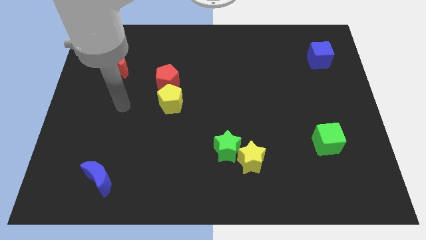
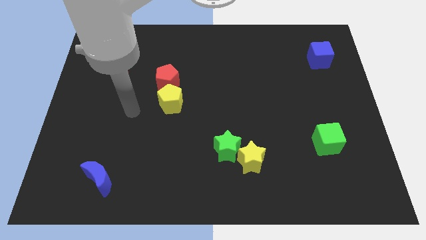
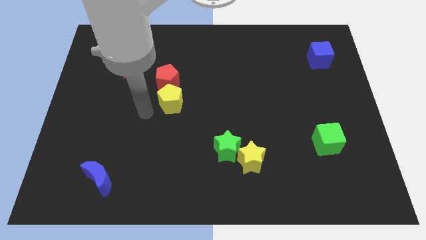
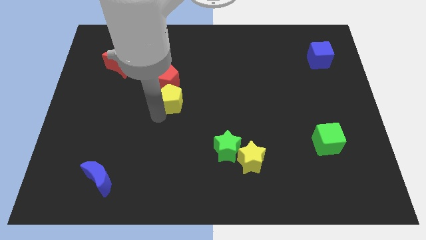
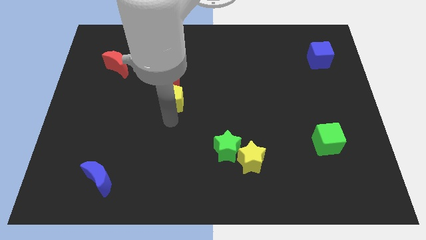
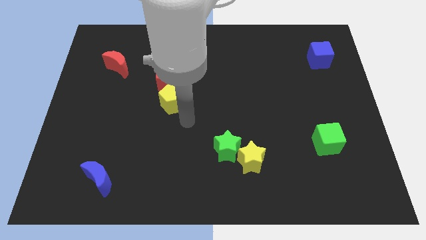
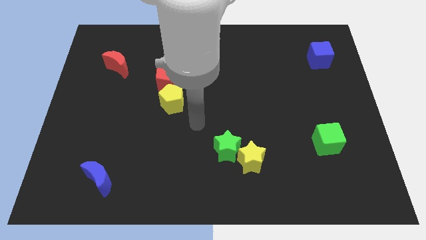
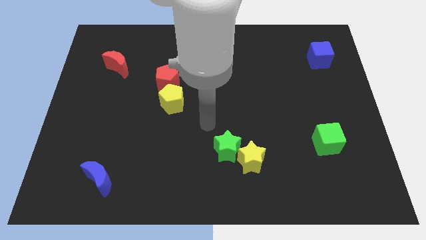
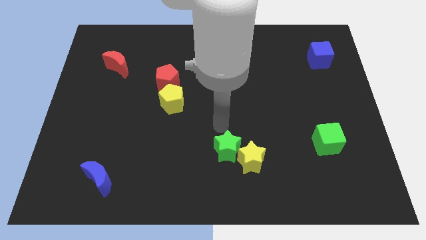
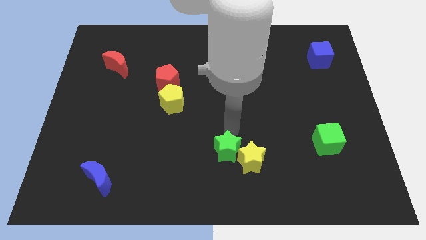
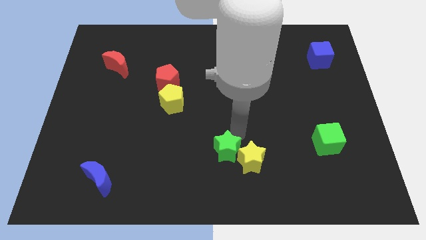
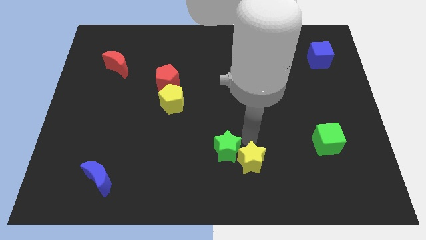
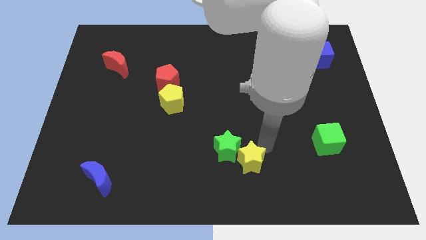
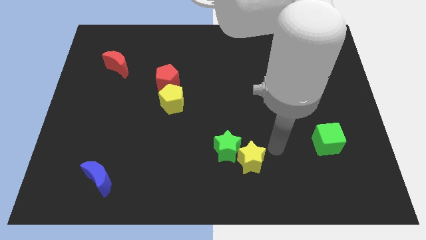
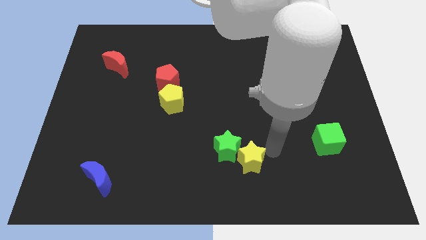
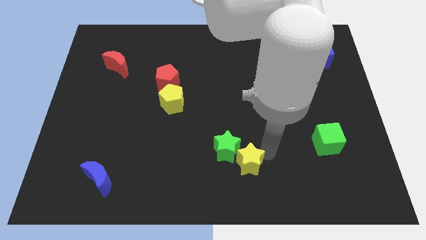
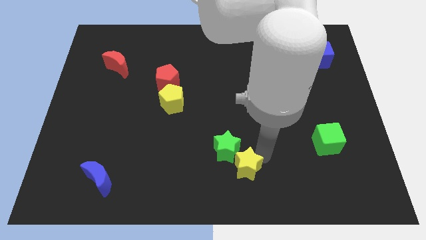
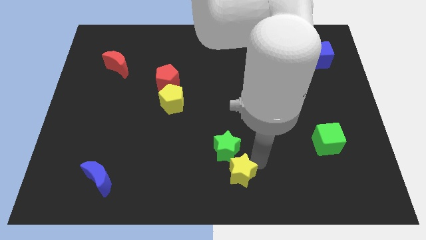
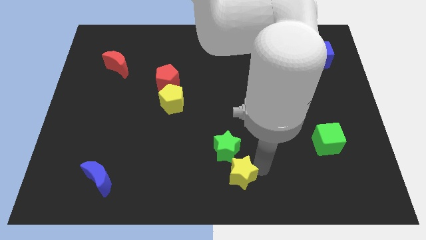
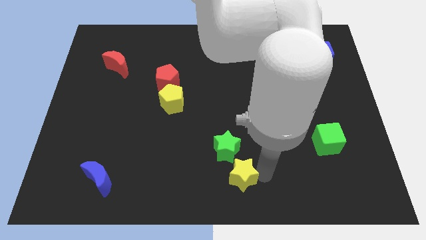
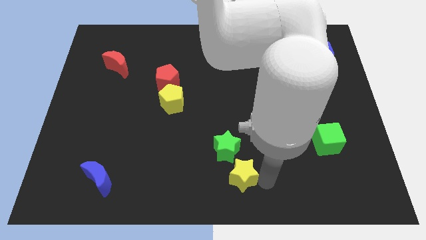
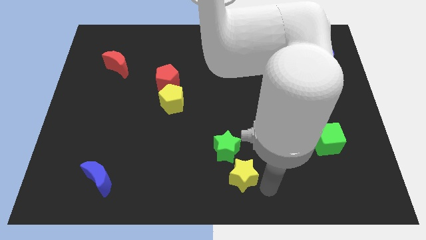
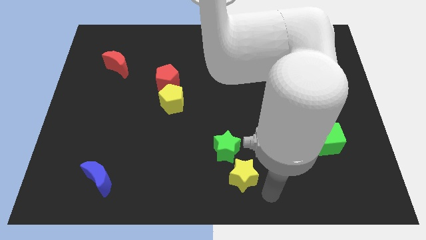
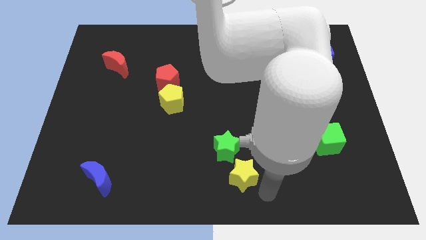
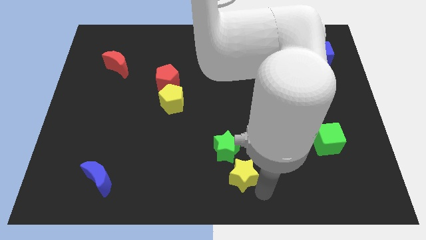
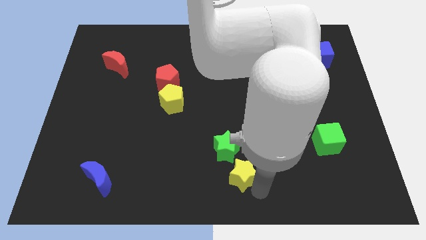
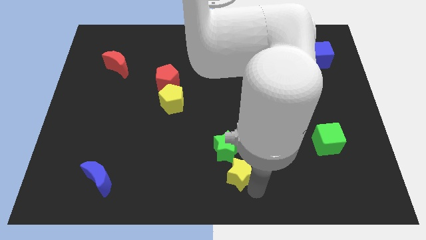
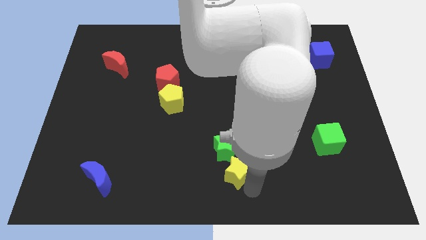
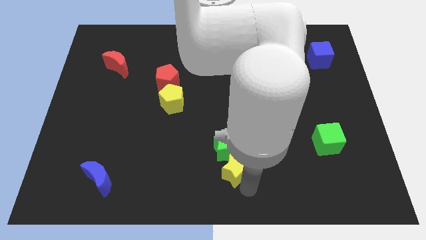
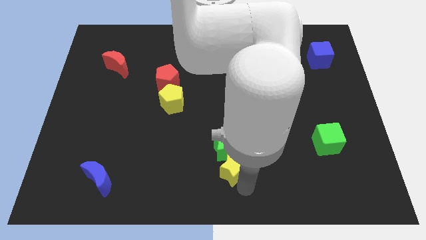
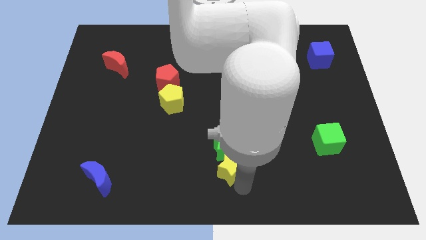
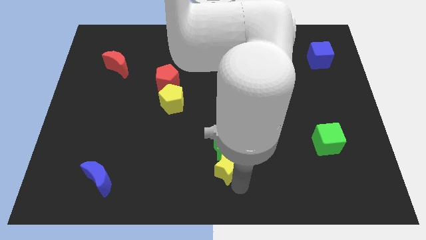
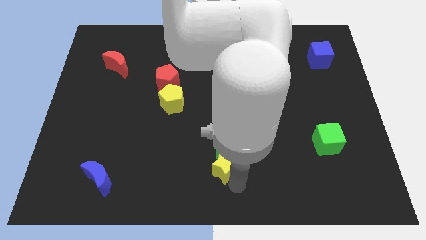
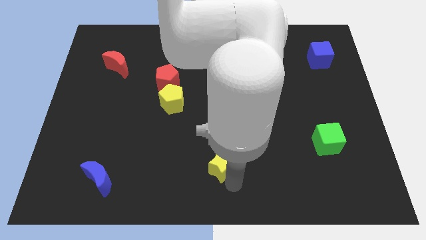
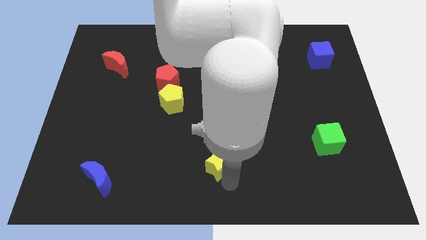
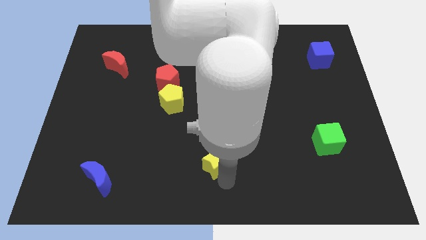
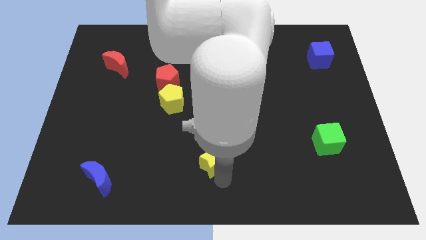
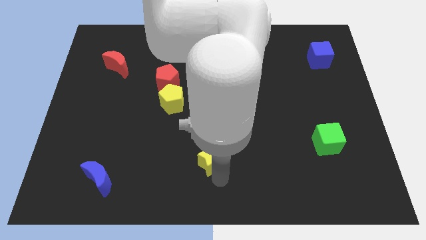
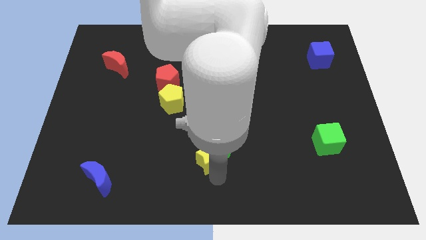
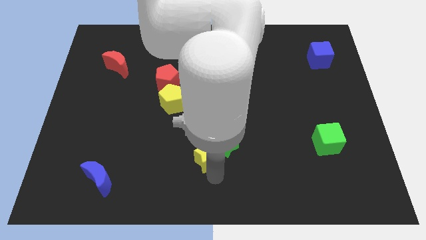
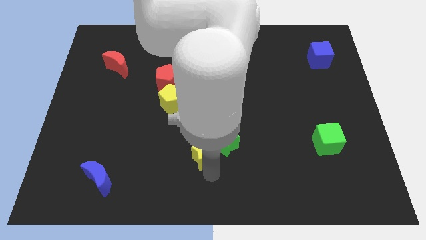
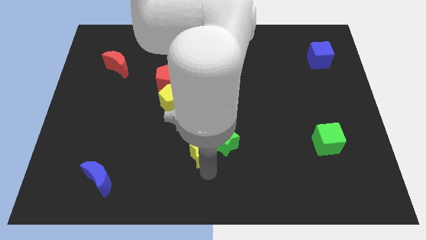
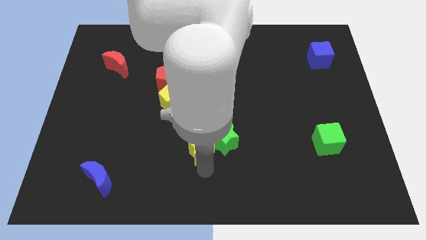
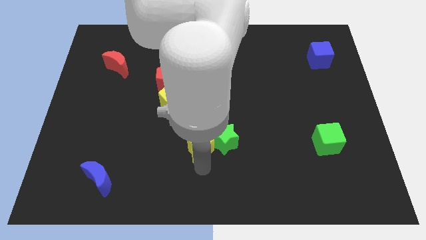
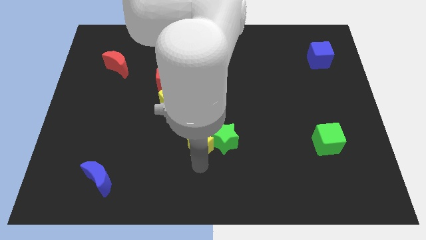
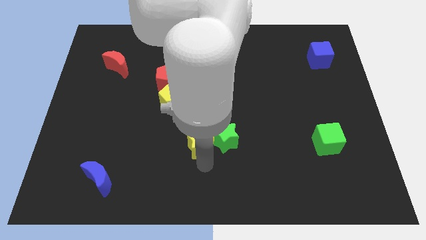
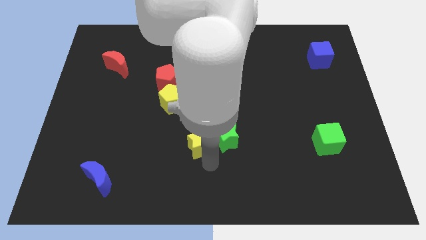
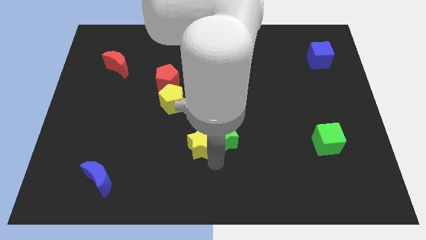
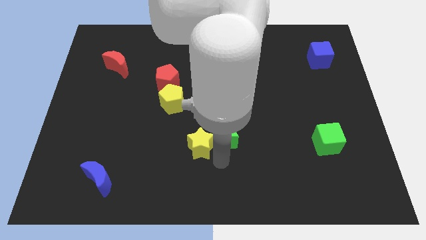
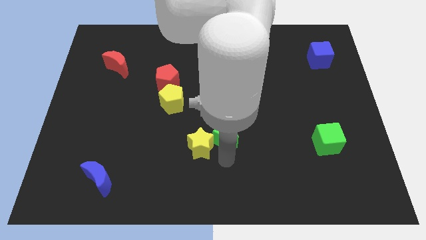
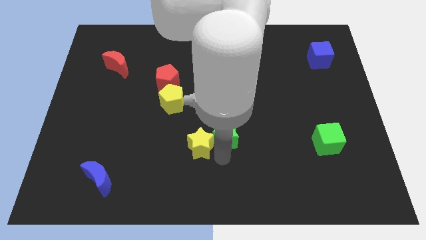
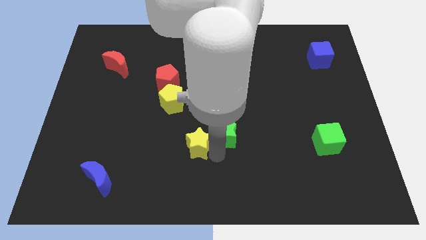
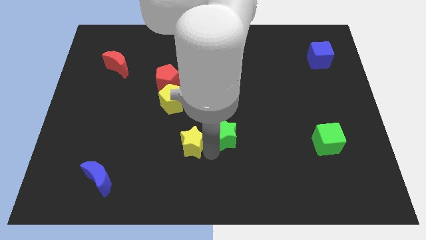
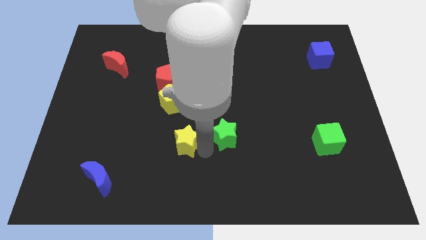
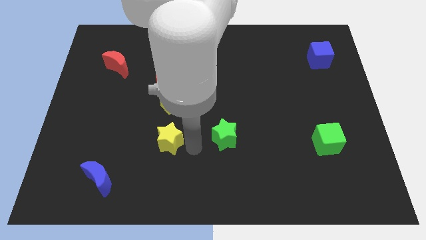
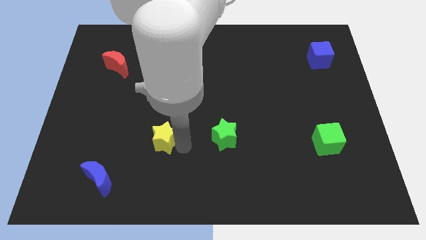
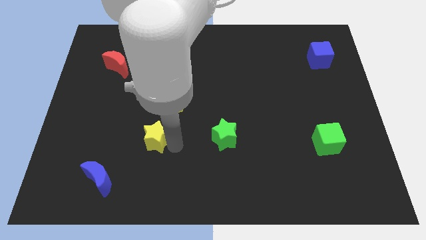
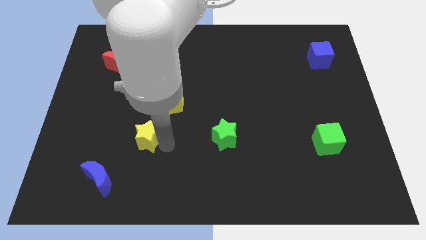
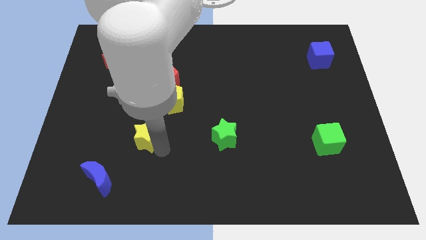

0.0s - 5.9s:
slide the yellow star diagonally down and to the left of the yellow pentagon

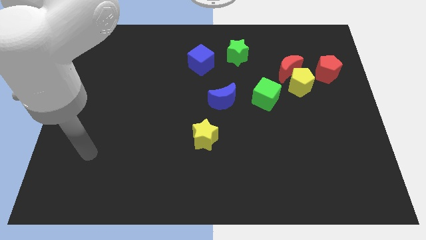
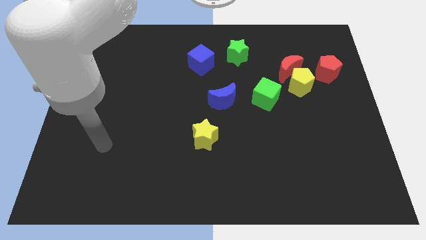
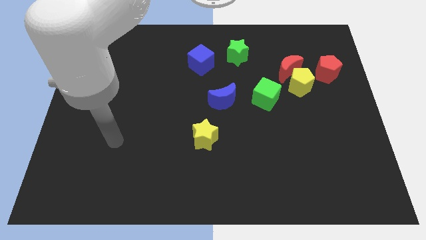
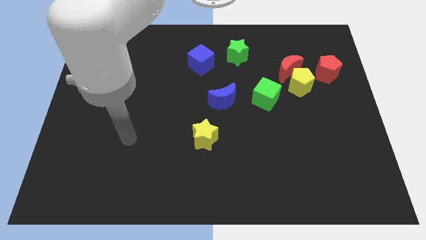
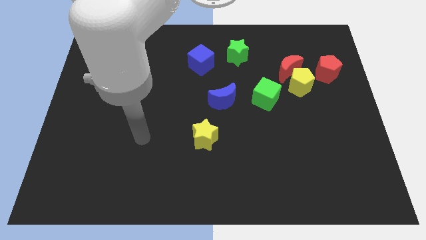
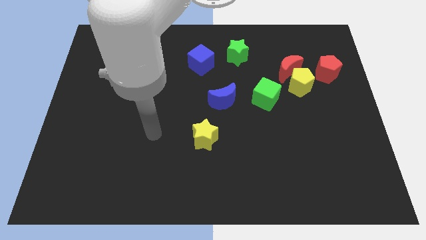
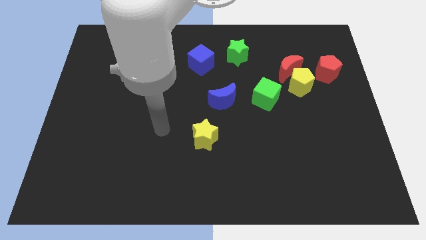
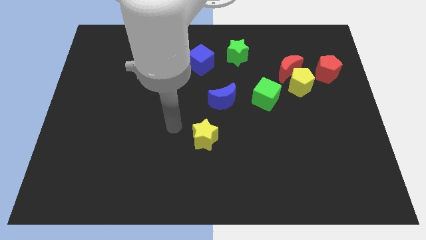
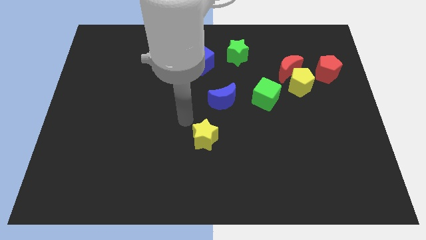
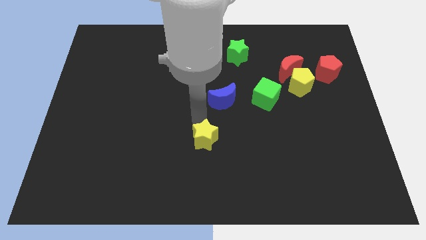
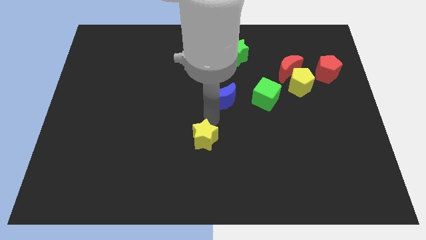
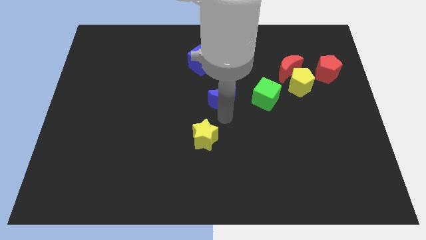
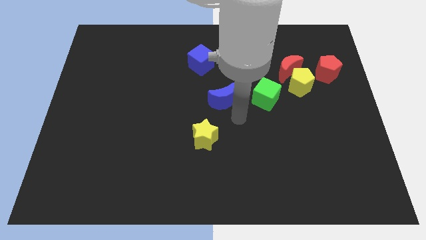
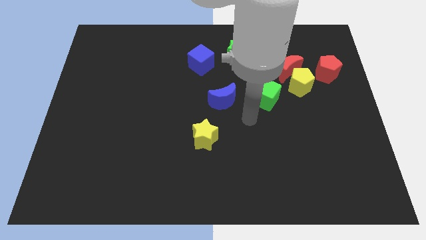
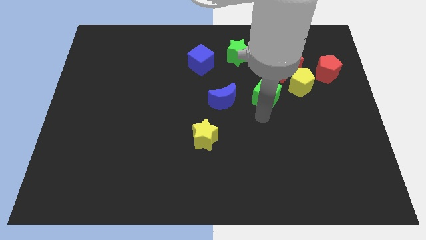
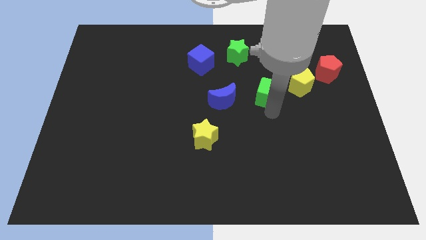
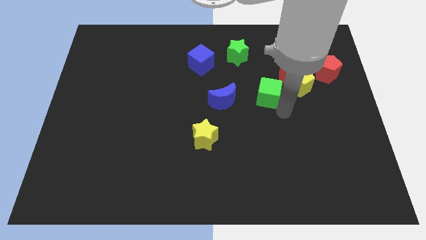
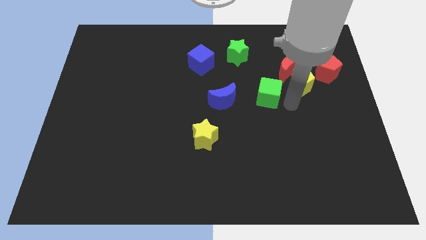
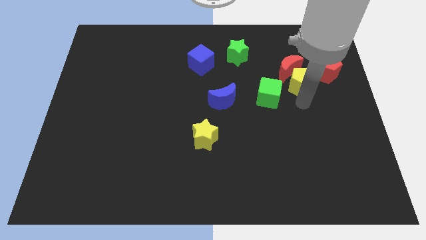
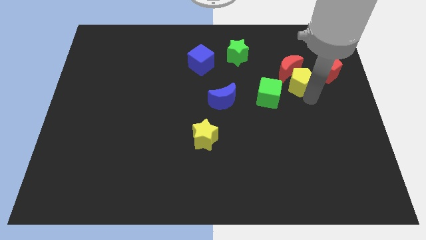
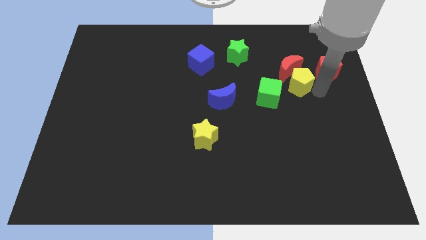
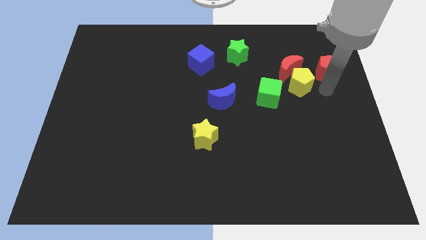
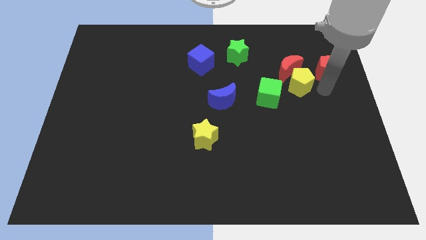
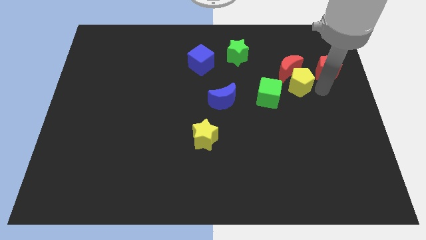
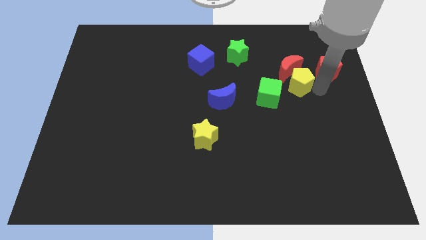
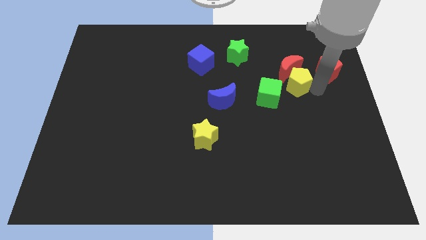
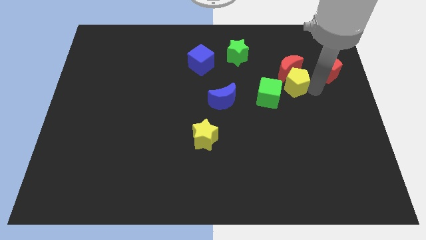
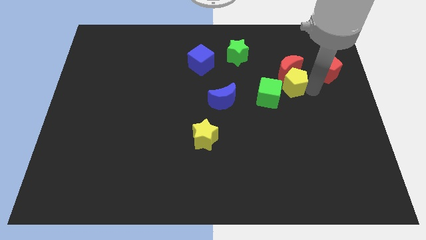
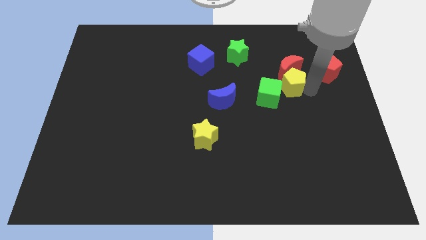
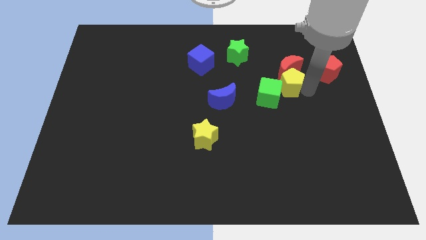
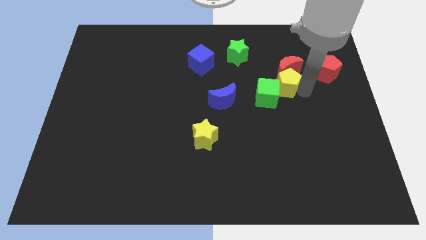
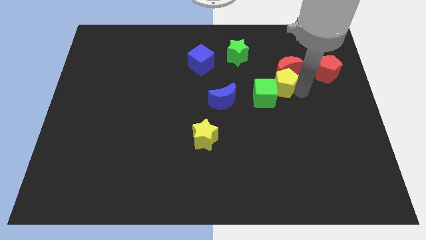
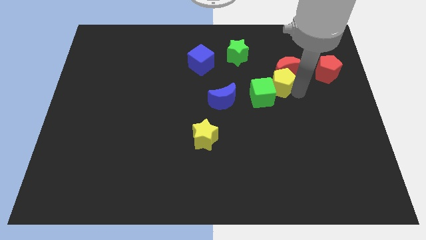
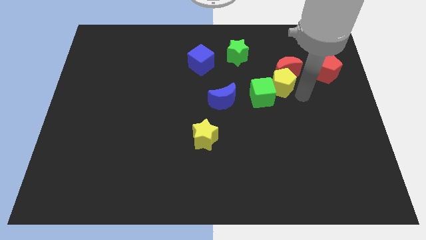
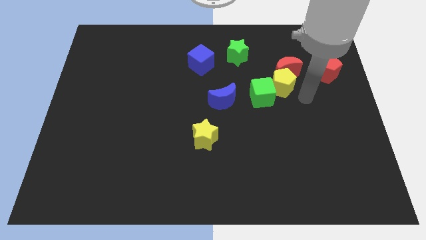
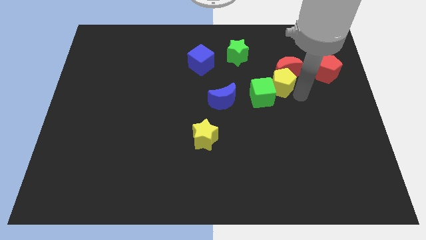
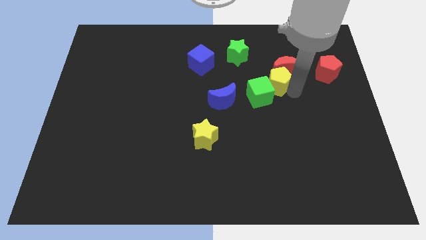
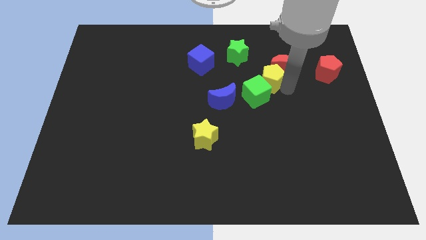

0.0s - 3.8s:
put the yellow pentagon just left of the red moon
